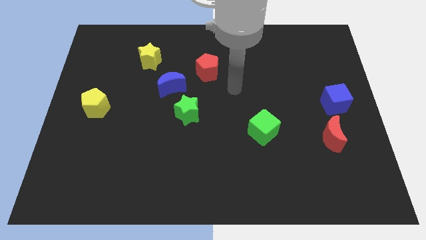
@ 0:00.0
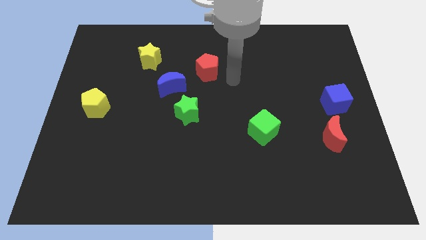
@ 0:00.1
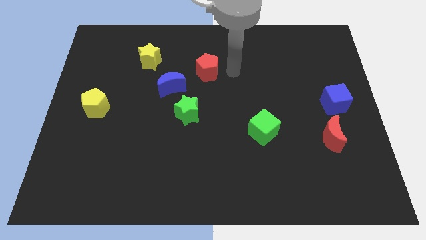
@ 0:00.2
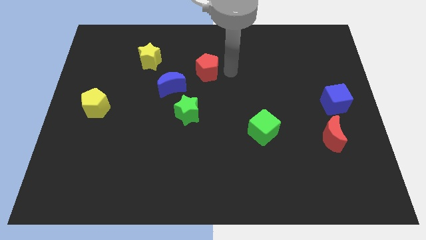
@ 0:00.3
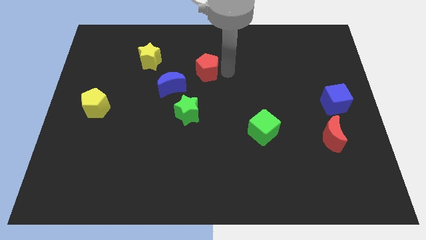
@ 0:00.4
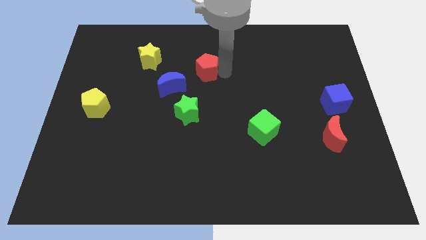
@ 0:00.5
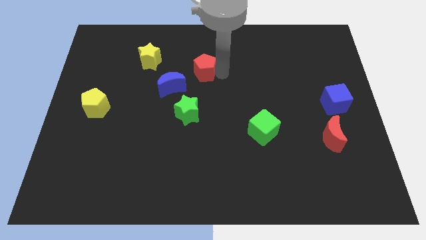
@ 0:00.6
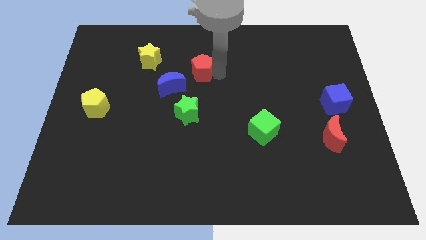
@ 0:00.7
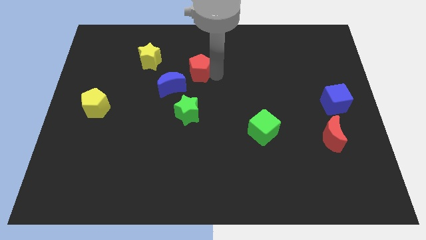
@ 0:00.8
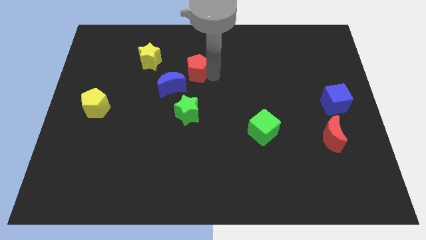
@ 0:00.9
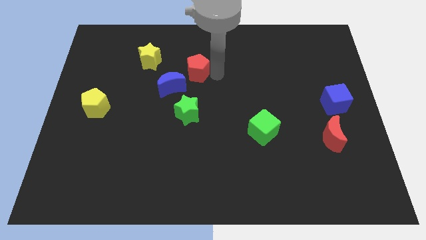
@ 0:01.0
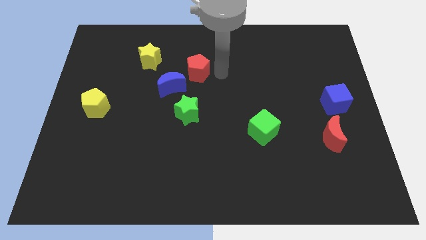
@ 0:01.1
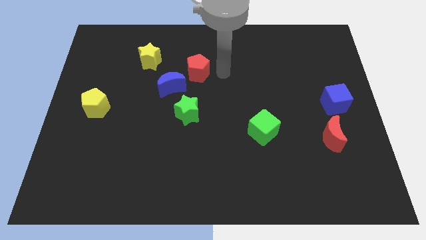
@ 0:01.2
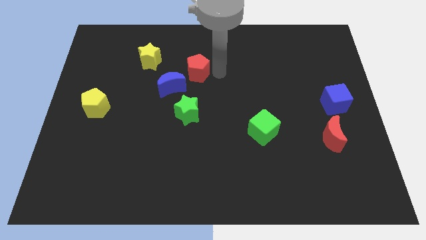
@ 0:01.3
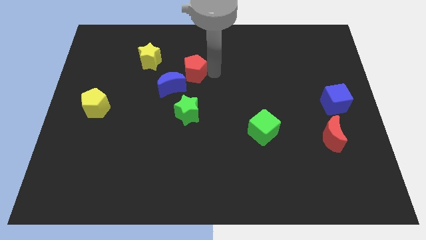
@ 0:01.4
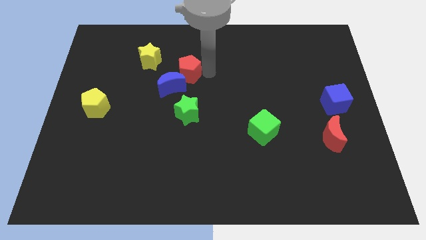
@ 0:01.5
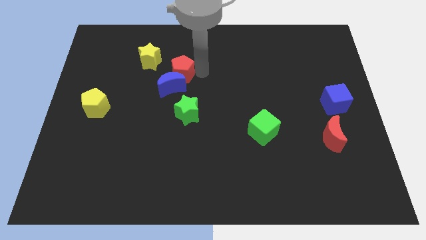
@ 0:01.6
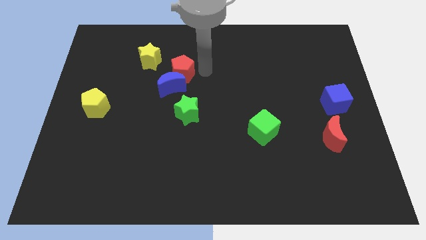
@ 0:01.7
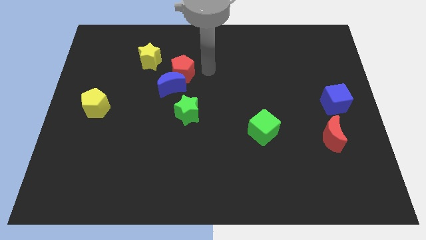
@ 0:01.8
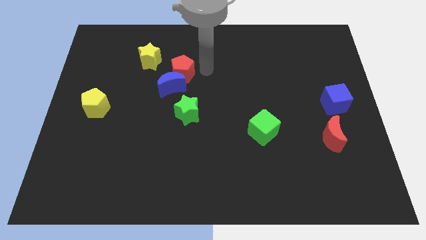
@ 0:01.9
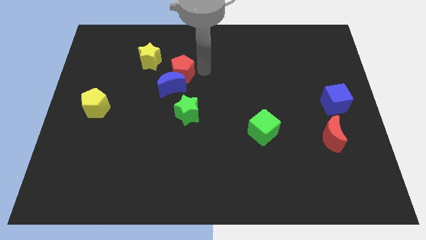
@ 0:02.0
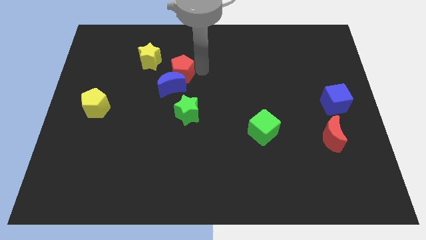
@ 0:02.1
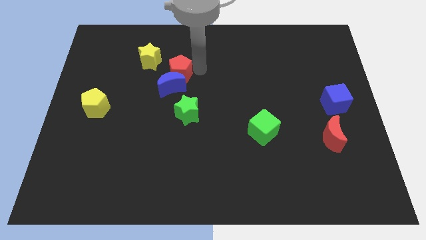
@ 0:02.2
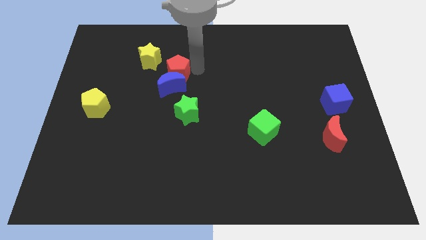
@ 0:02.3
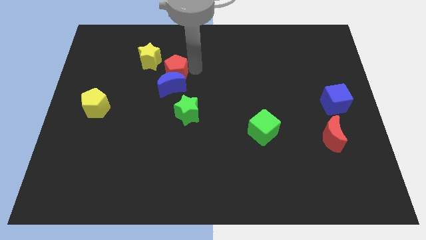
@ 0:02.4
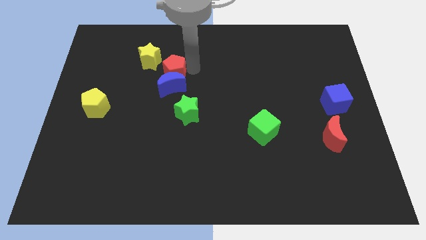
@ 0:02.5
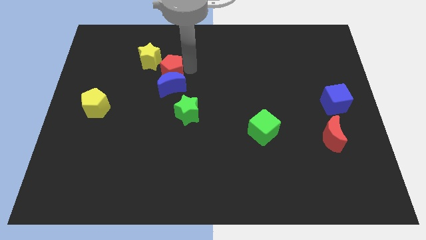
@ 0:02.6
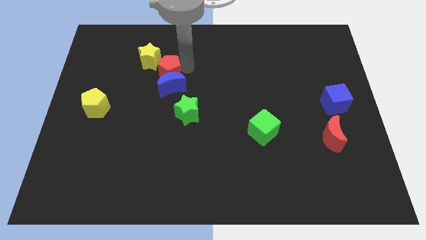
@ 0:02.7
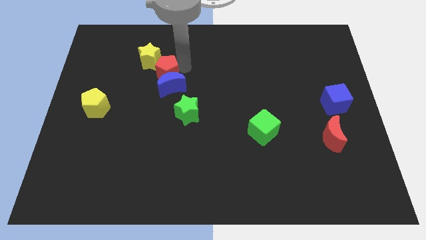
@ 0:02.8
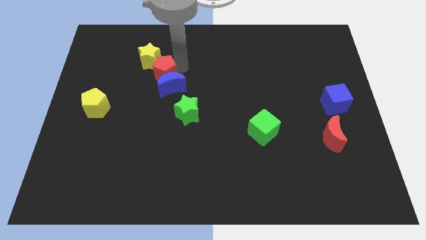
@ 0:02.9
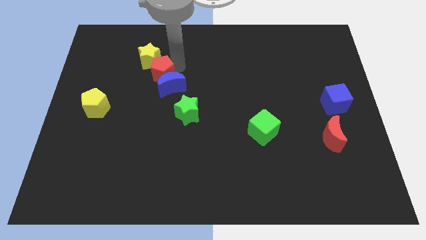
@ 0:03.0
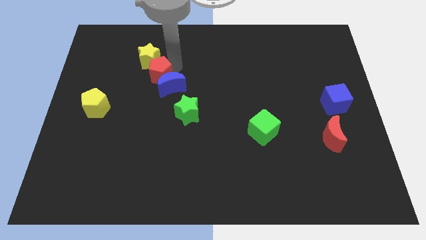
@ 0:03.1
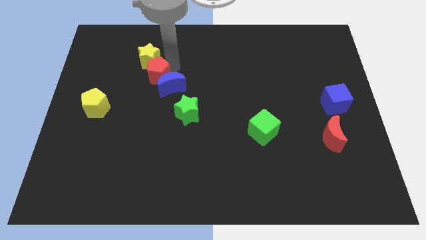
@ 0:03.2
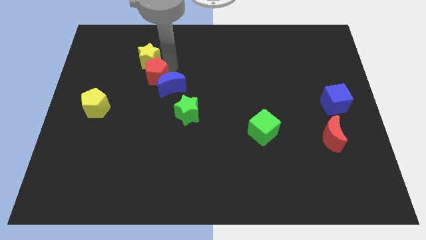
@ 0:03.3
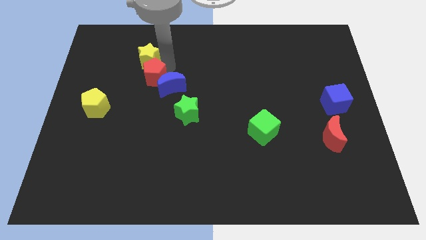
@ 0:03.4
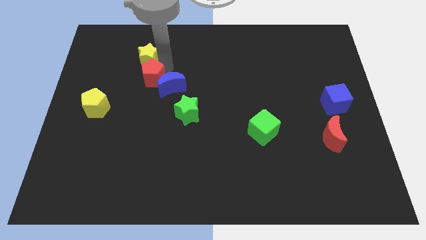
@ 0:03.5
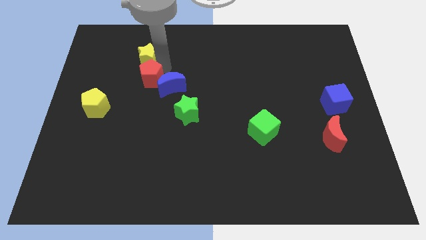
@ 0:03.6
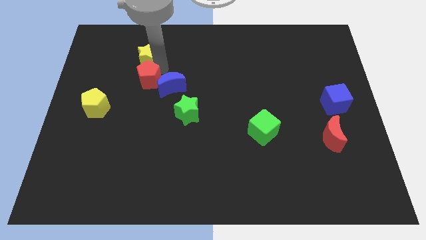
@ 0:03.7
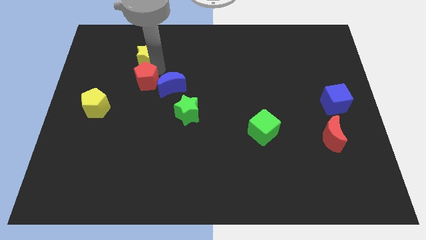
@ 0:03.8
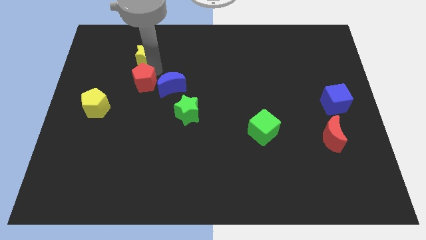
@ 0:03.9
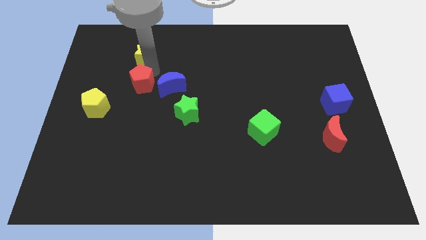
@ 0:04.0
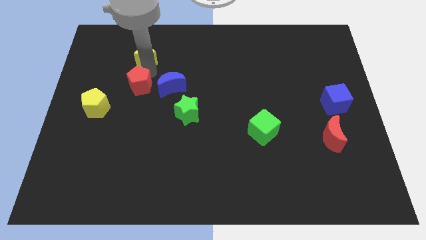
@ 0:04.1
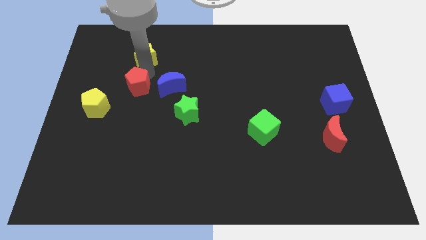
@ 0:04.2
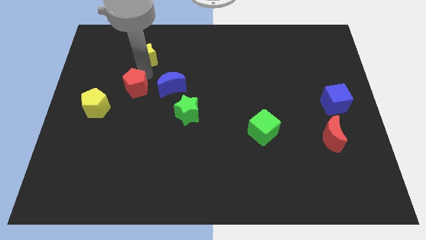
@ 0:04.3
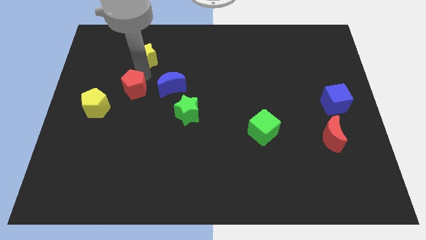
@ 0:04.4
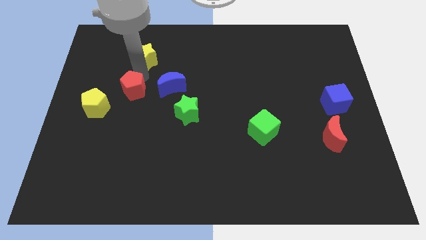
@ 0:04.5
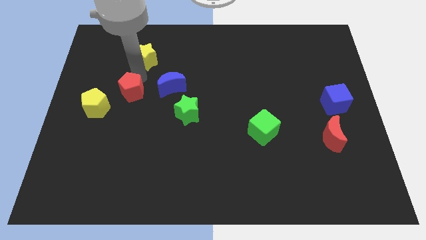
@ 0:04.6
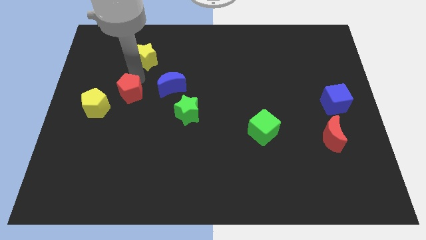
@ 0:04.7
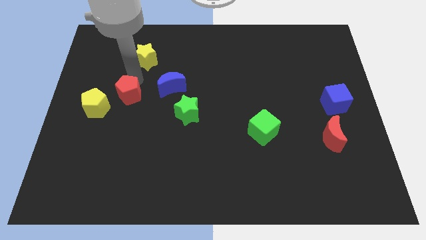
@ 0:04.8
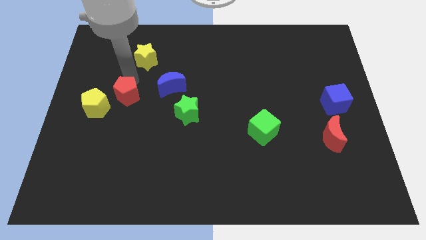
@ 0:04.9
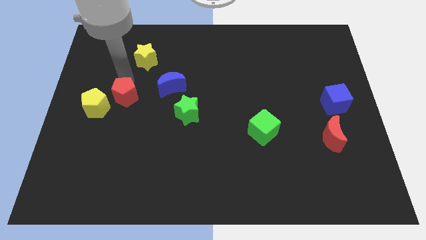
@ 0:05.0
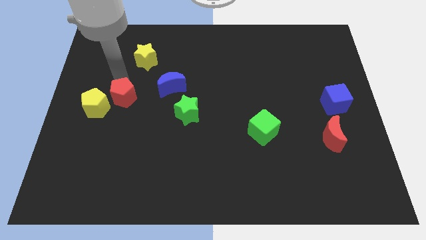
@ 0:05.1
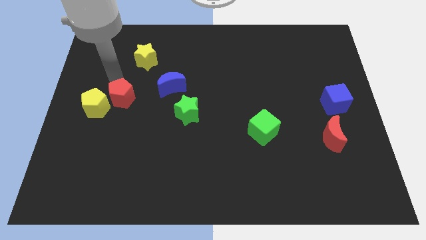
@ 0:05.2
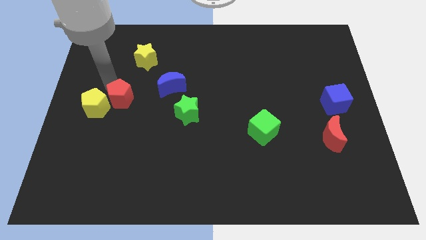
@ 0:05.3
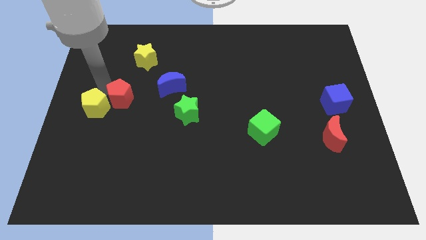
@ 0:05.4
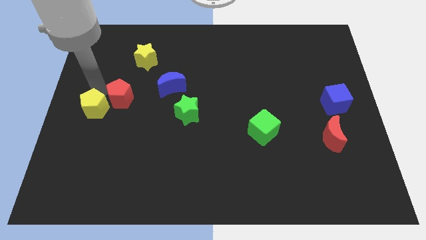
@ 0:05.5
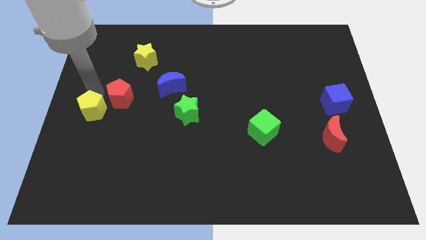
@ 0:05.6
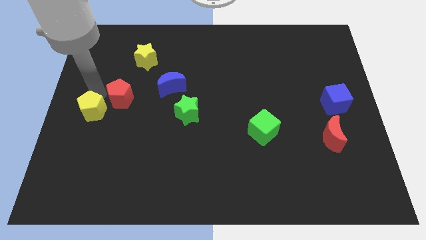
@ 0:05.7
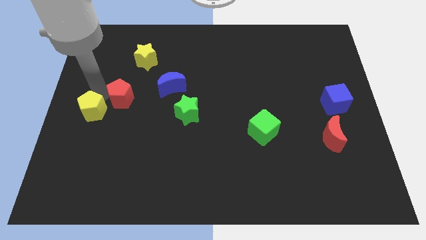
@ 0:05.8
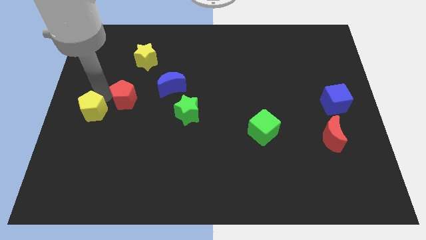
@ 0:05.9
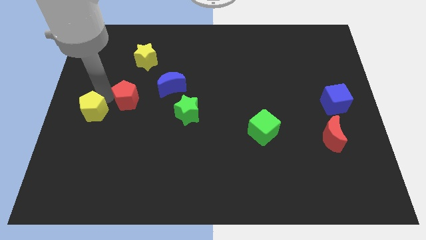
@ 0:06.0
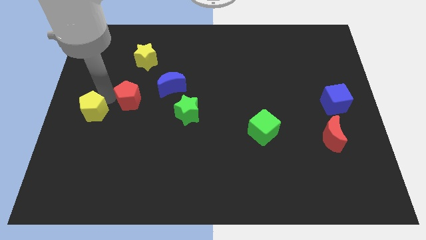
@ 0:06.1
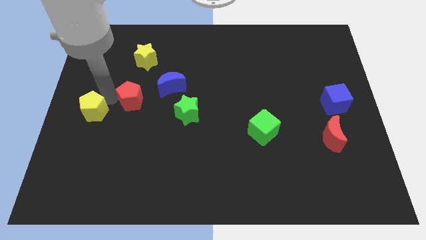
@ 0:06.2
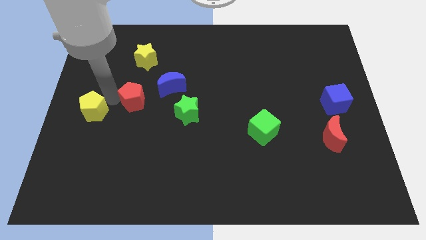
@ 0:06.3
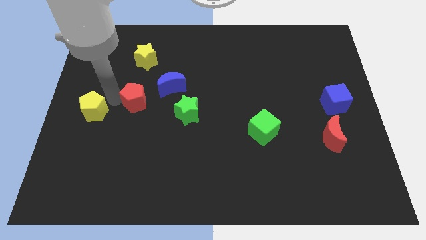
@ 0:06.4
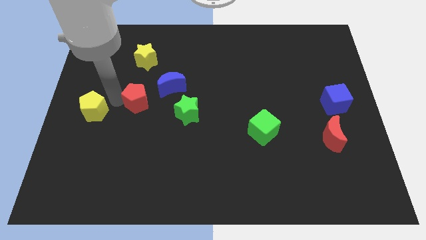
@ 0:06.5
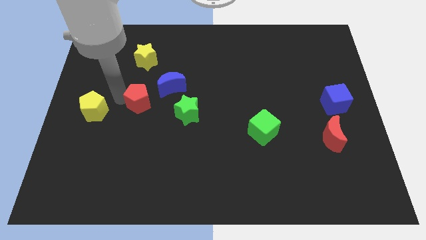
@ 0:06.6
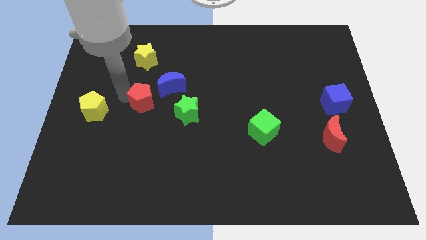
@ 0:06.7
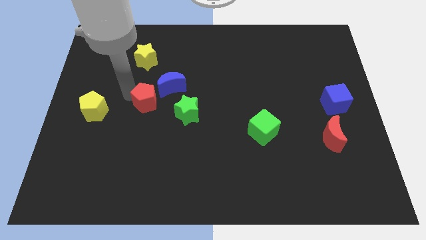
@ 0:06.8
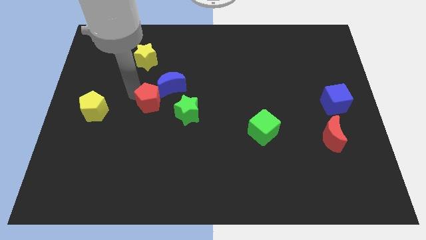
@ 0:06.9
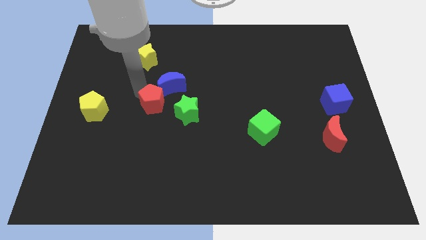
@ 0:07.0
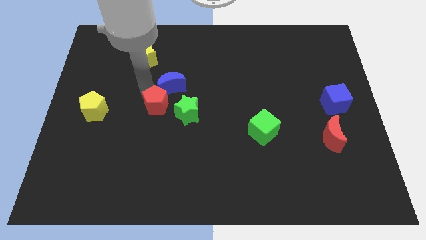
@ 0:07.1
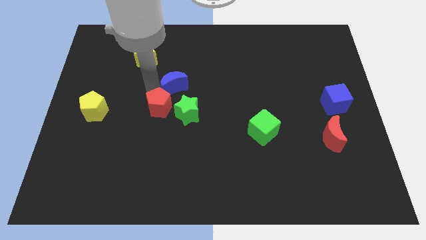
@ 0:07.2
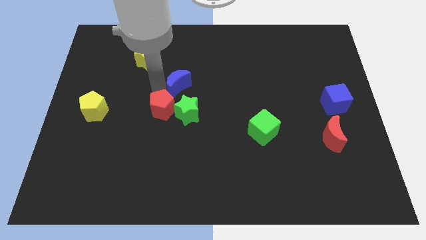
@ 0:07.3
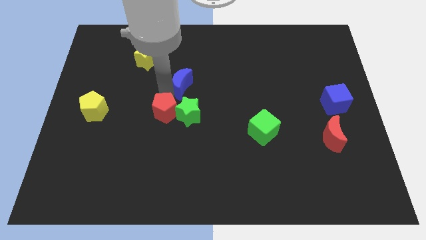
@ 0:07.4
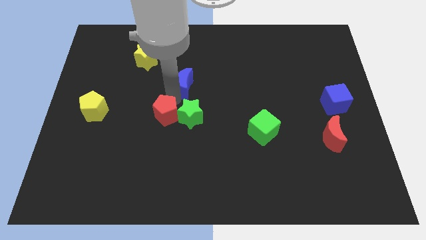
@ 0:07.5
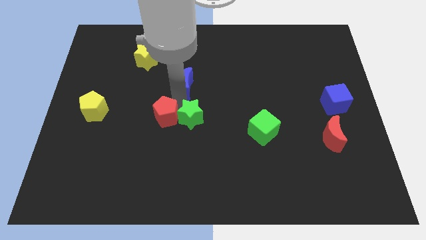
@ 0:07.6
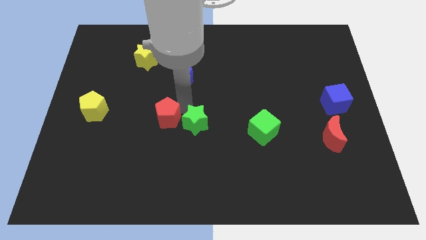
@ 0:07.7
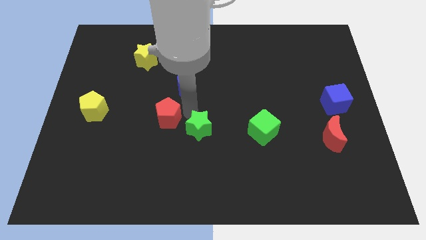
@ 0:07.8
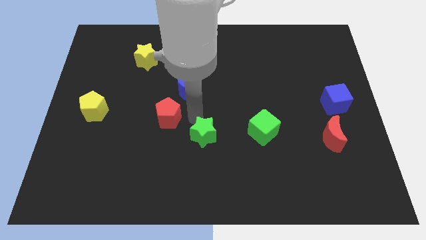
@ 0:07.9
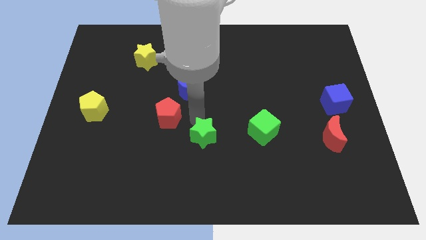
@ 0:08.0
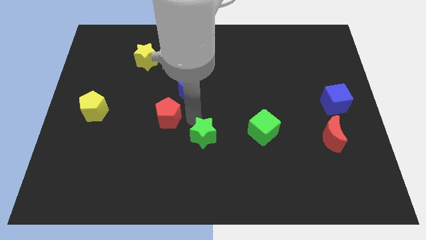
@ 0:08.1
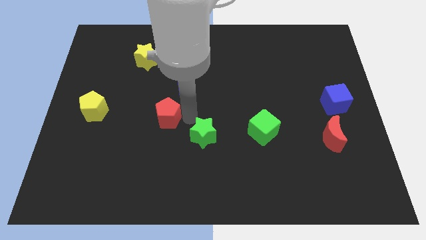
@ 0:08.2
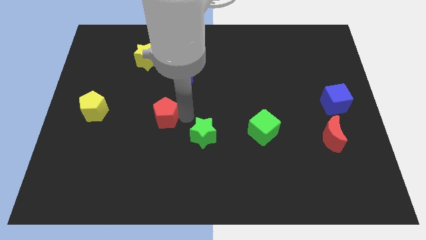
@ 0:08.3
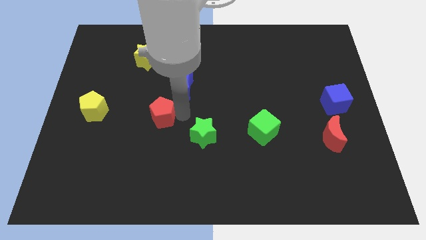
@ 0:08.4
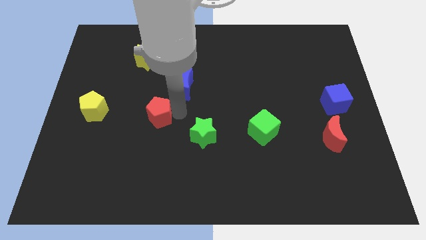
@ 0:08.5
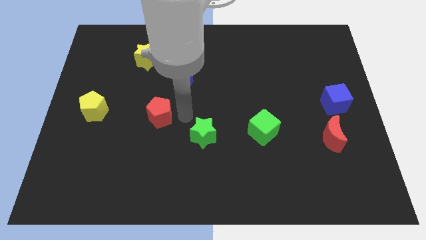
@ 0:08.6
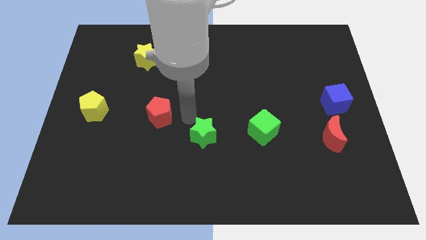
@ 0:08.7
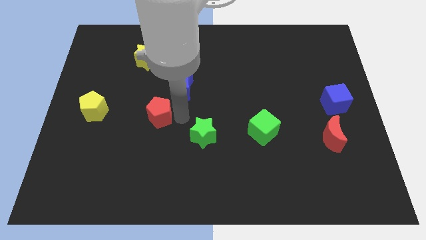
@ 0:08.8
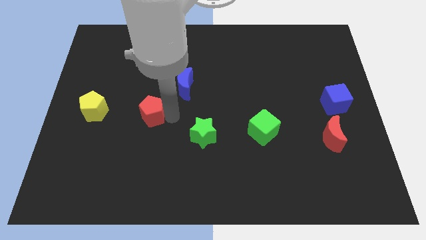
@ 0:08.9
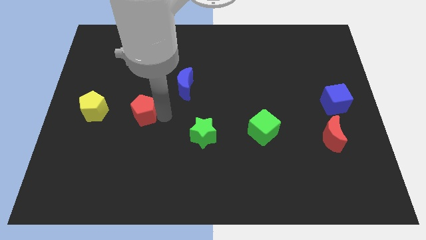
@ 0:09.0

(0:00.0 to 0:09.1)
push the red pentagon down and to the left diagonally
